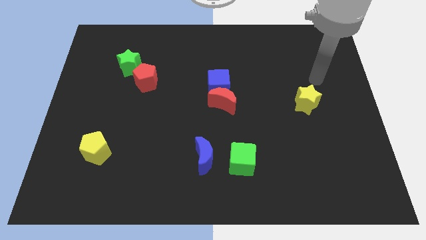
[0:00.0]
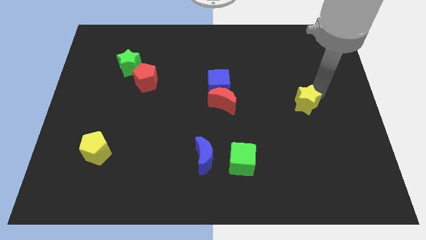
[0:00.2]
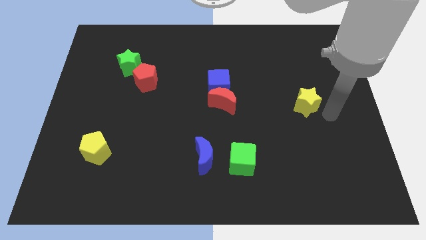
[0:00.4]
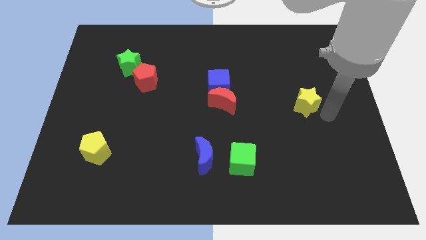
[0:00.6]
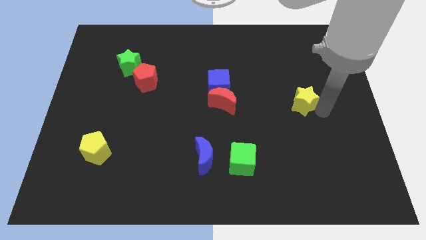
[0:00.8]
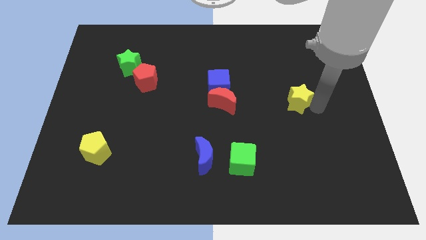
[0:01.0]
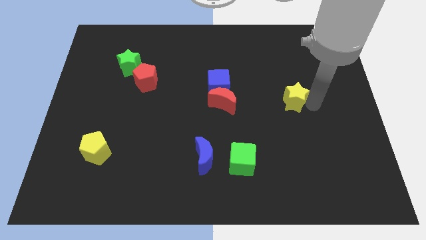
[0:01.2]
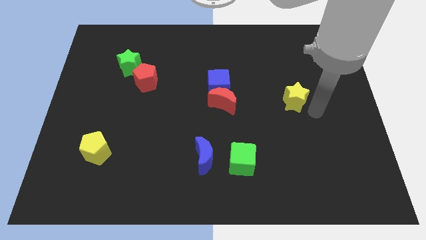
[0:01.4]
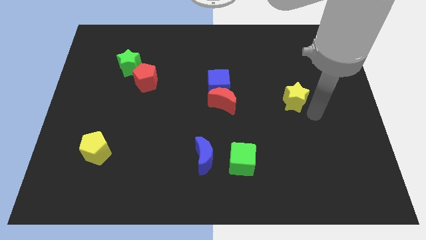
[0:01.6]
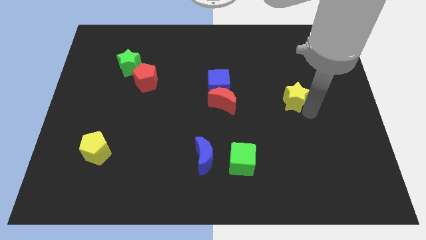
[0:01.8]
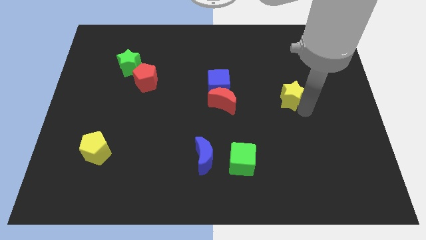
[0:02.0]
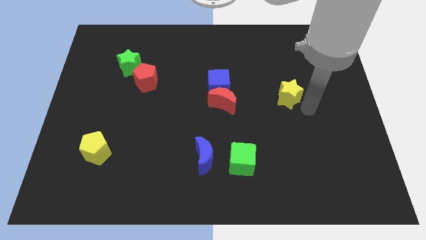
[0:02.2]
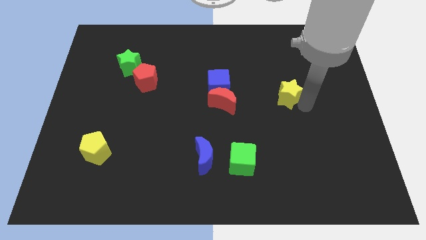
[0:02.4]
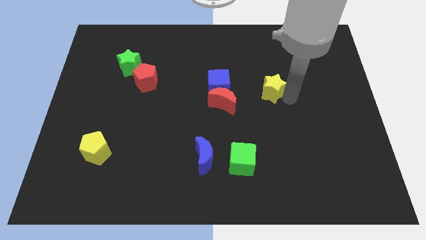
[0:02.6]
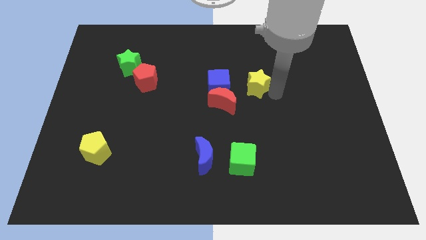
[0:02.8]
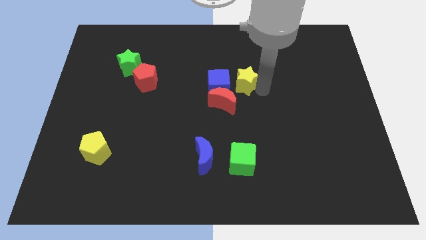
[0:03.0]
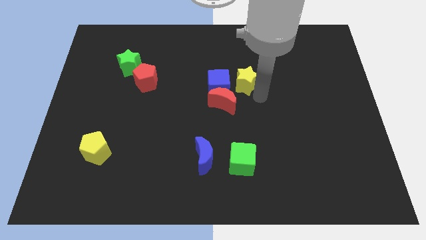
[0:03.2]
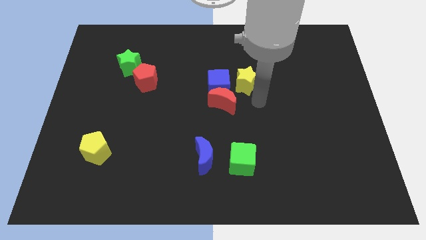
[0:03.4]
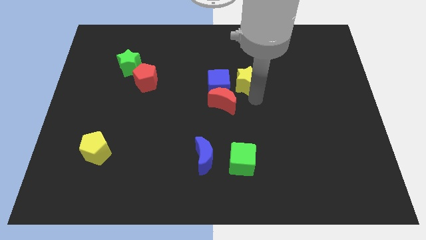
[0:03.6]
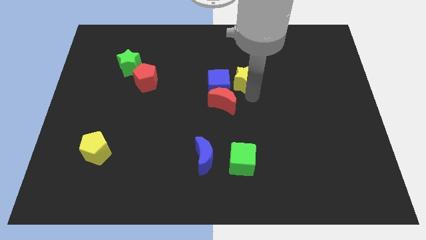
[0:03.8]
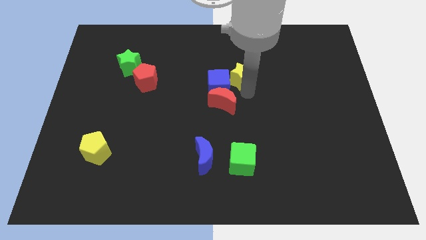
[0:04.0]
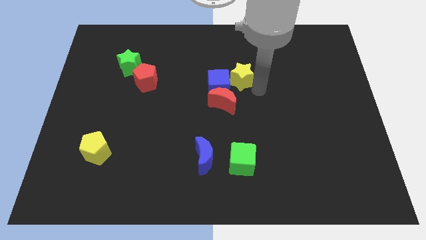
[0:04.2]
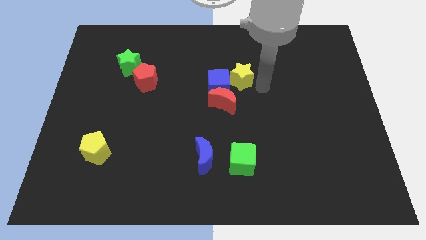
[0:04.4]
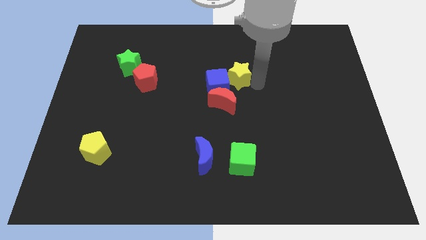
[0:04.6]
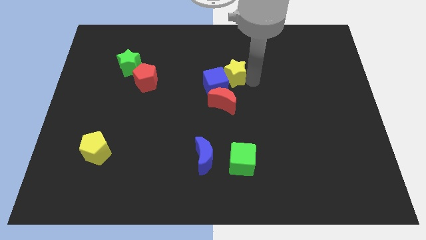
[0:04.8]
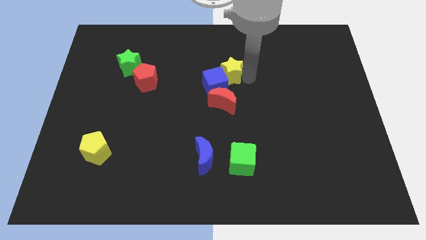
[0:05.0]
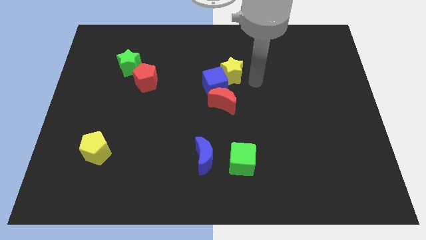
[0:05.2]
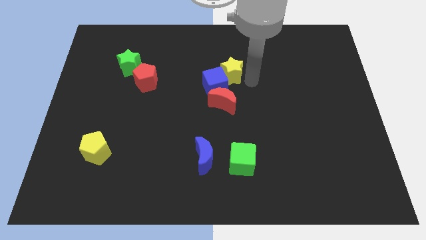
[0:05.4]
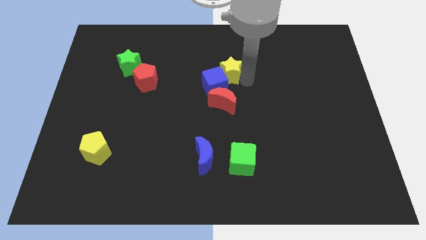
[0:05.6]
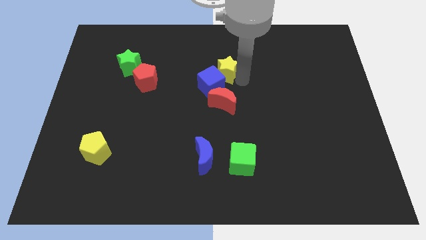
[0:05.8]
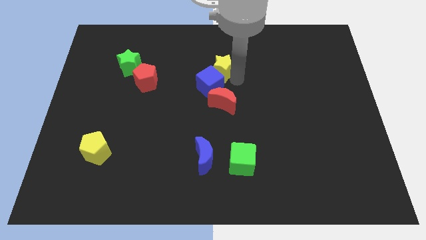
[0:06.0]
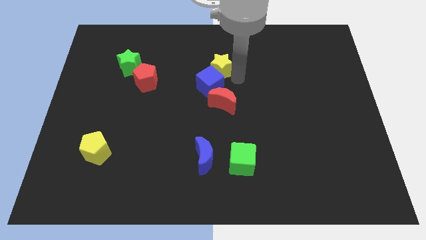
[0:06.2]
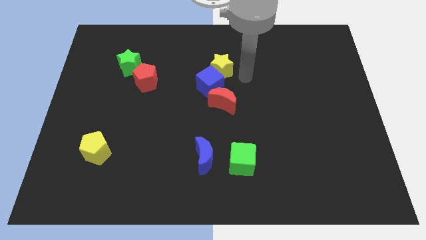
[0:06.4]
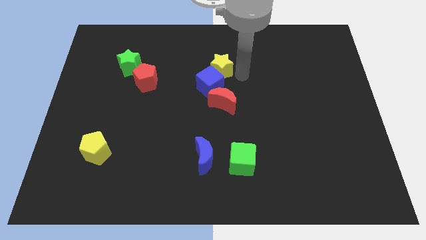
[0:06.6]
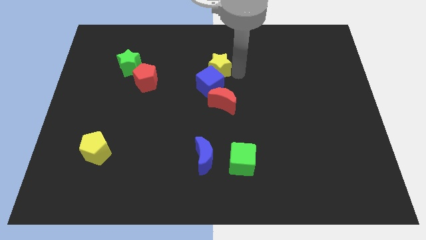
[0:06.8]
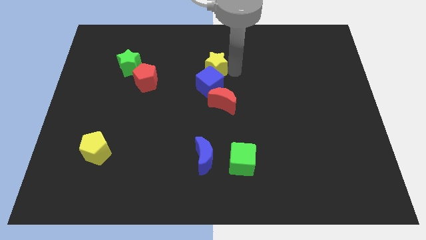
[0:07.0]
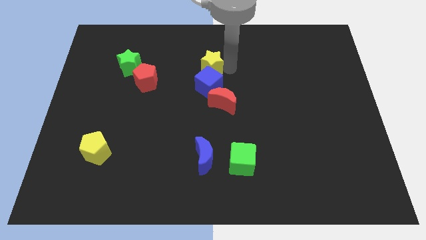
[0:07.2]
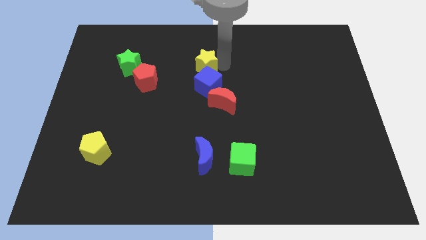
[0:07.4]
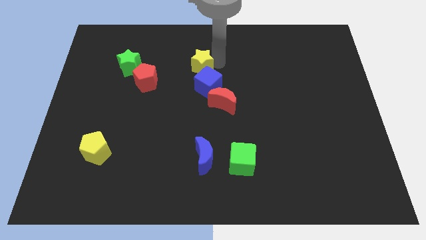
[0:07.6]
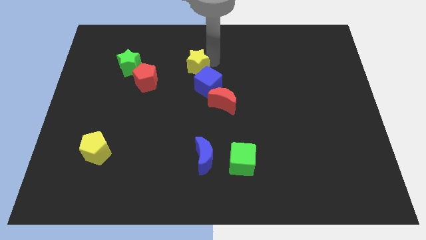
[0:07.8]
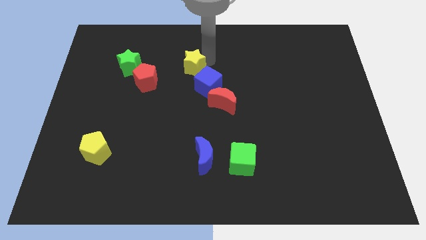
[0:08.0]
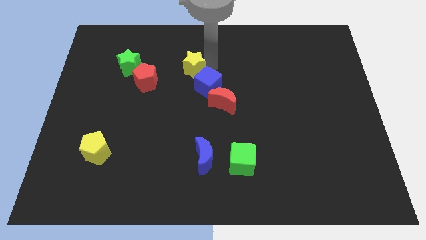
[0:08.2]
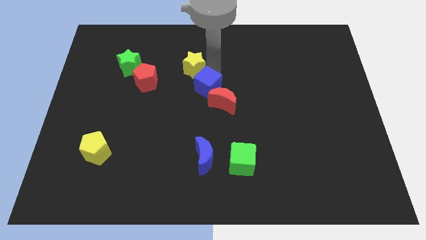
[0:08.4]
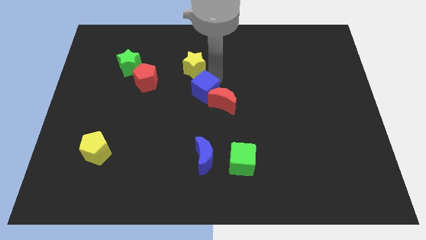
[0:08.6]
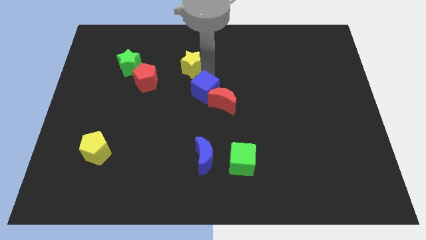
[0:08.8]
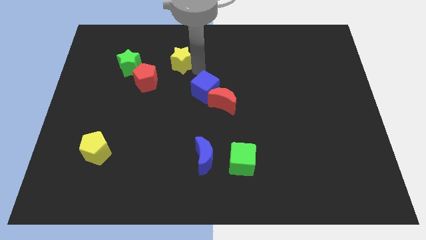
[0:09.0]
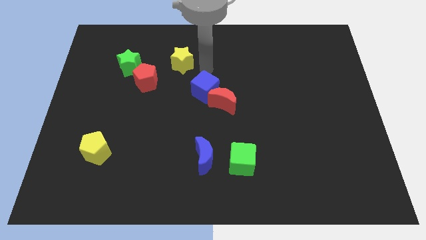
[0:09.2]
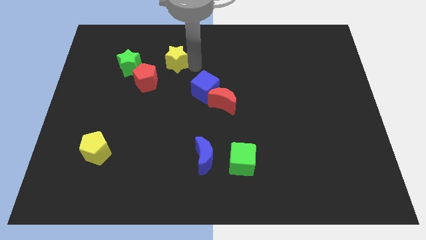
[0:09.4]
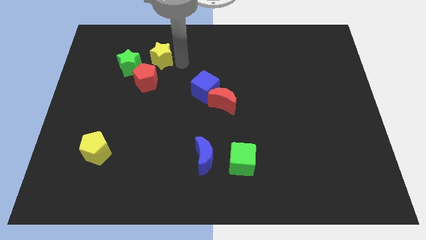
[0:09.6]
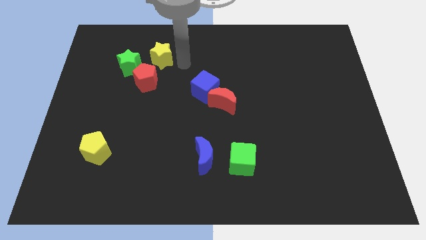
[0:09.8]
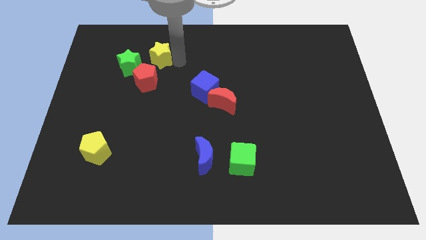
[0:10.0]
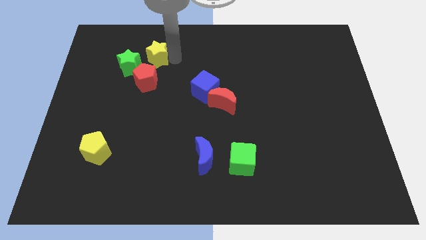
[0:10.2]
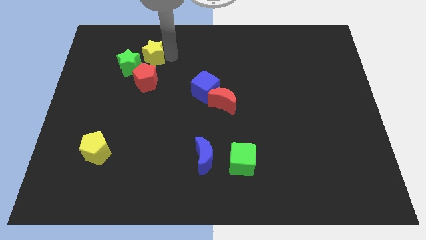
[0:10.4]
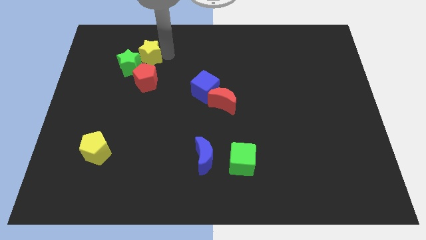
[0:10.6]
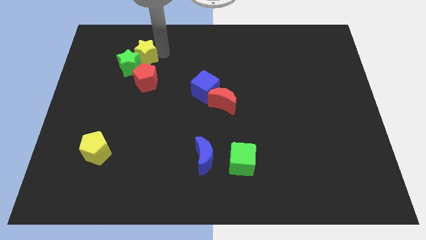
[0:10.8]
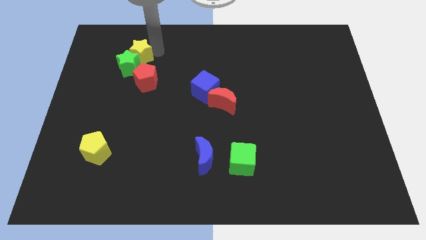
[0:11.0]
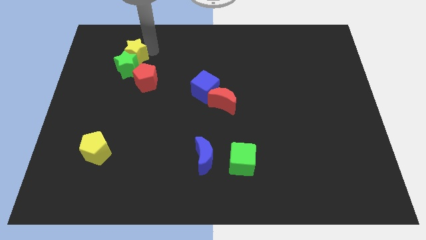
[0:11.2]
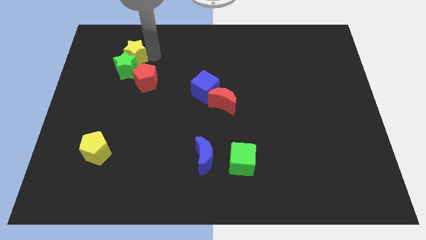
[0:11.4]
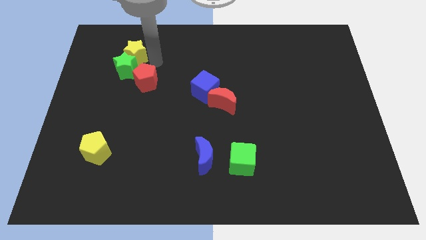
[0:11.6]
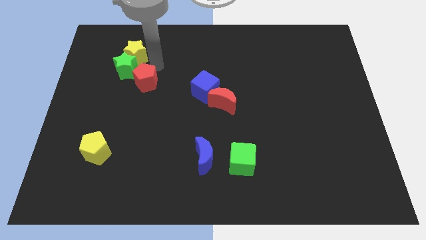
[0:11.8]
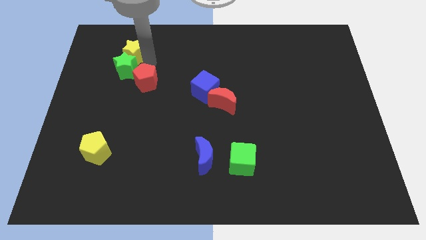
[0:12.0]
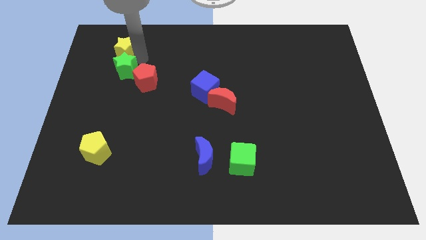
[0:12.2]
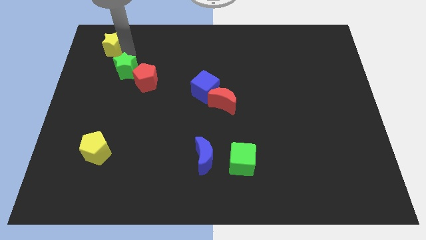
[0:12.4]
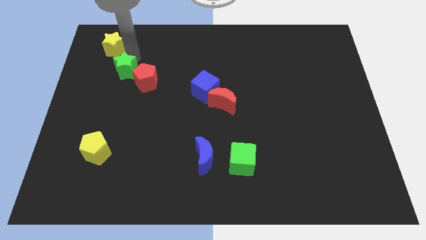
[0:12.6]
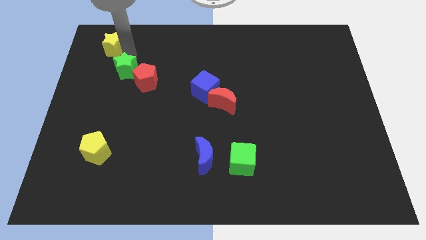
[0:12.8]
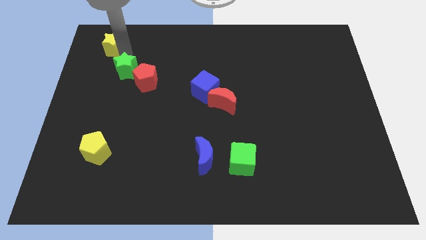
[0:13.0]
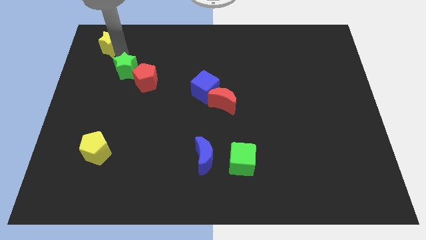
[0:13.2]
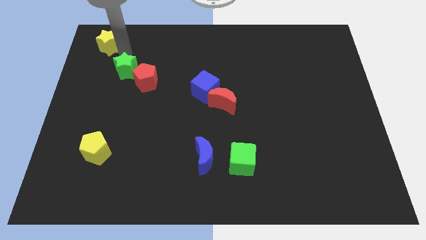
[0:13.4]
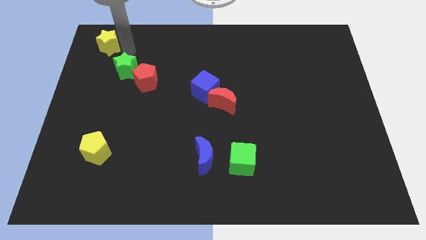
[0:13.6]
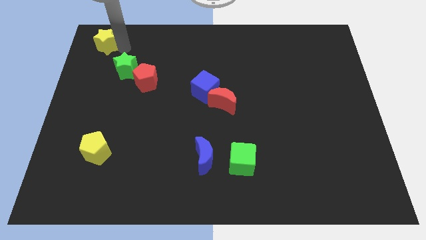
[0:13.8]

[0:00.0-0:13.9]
slide the yellow star to the top left of the board
